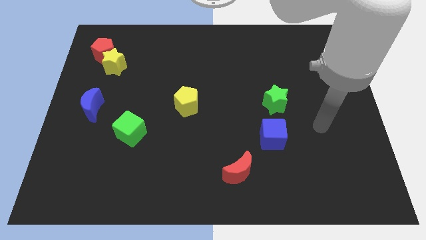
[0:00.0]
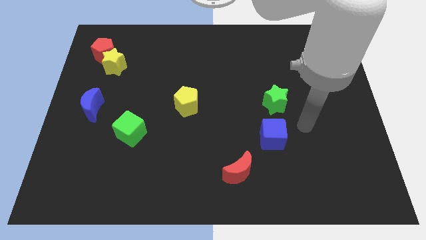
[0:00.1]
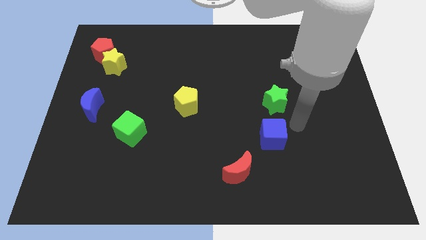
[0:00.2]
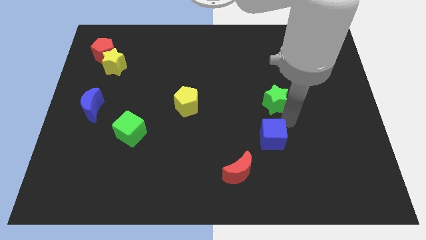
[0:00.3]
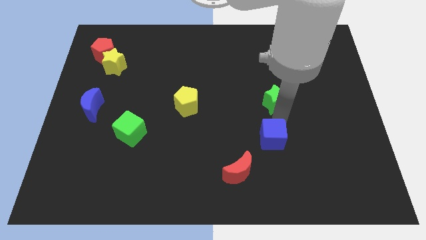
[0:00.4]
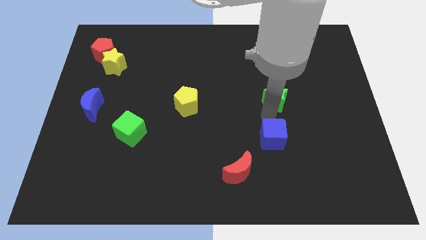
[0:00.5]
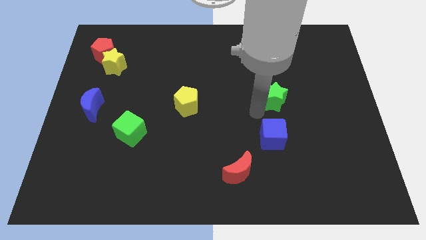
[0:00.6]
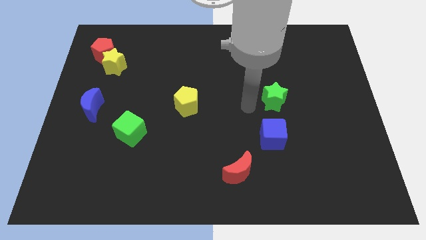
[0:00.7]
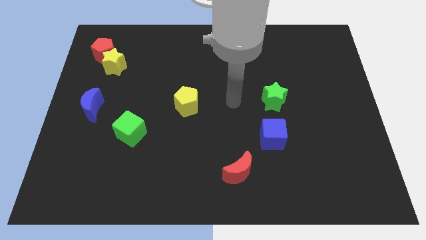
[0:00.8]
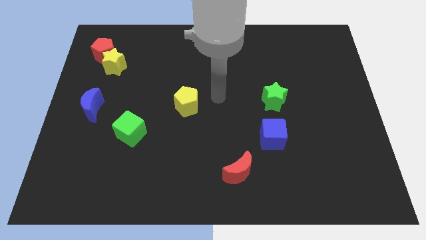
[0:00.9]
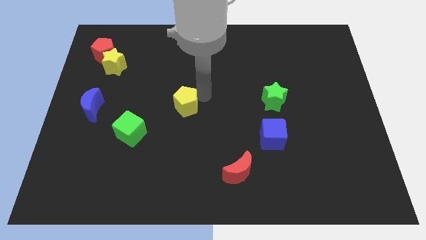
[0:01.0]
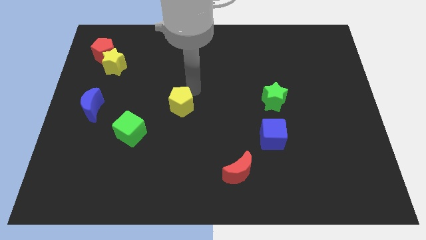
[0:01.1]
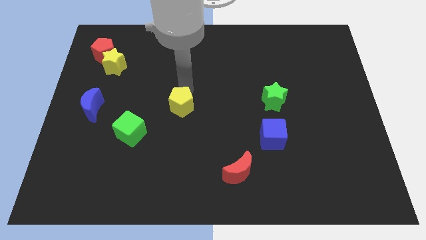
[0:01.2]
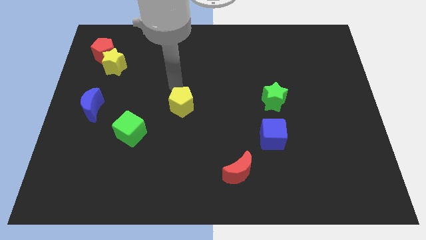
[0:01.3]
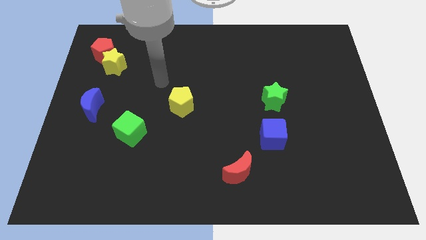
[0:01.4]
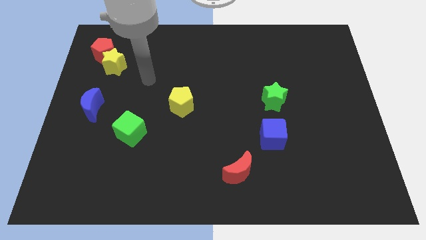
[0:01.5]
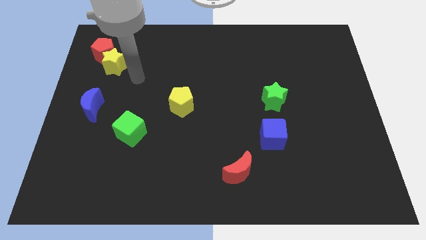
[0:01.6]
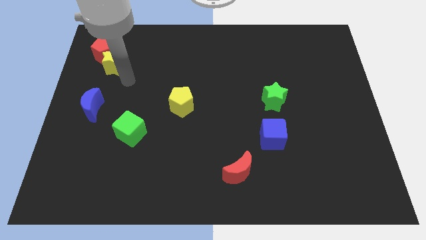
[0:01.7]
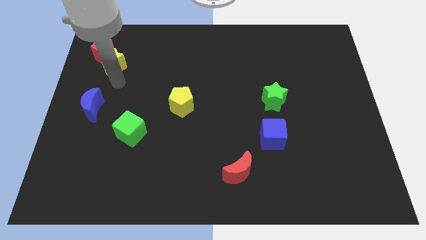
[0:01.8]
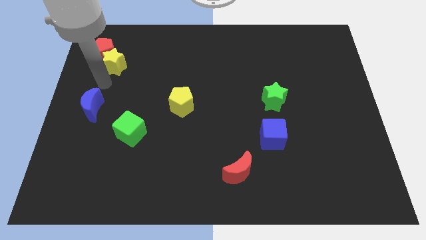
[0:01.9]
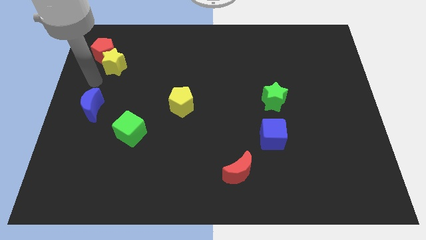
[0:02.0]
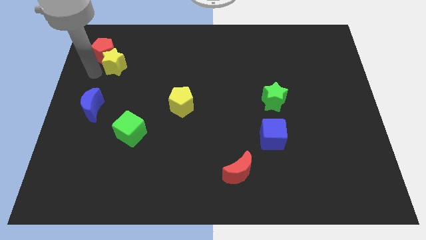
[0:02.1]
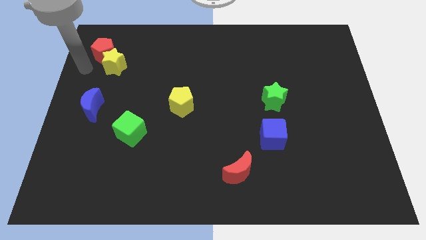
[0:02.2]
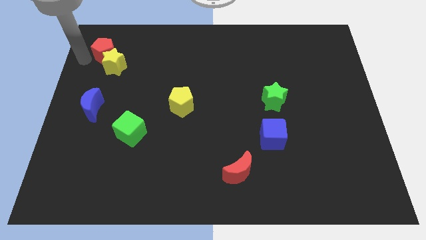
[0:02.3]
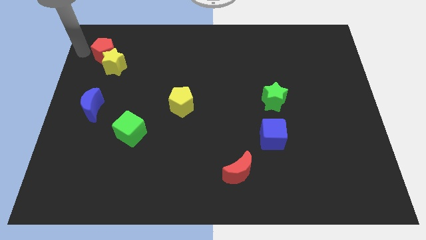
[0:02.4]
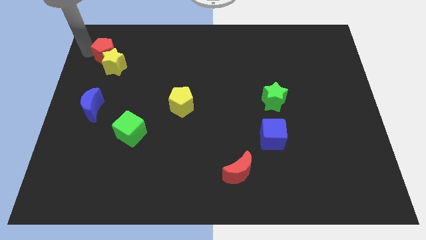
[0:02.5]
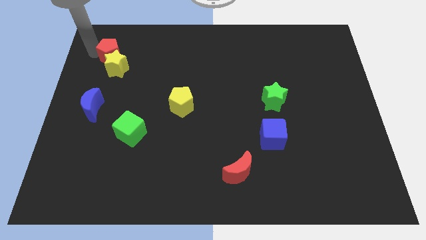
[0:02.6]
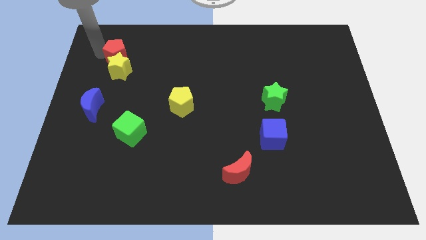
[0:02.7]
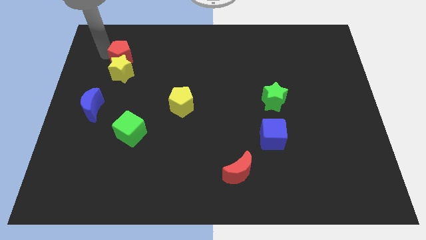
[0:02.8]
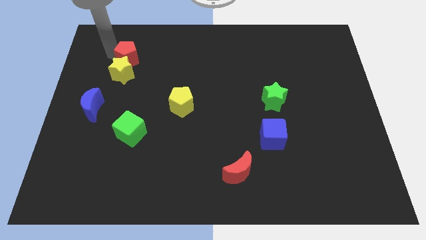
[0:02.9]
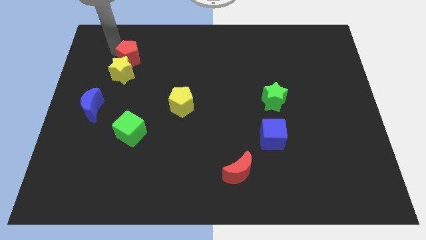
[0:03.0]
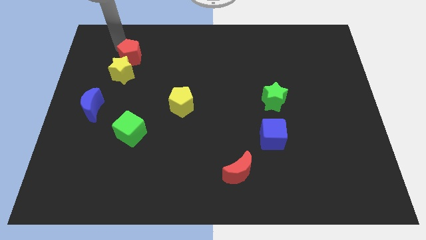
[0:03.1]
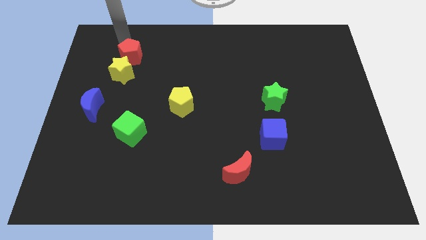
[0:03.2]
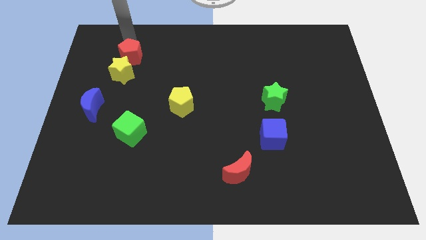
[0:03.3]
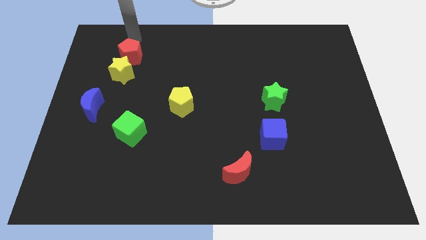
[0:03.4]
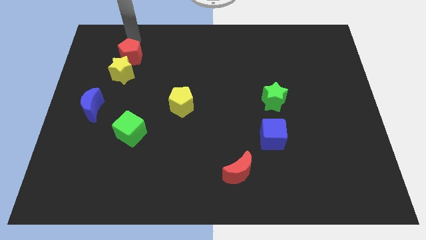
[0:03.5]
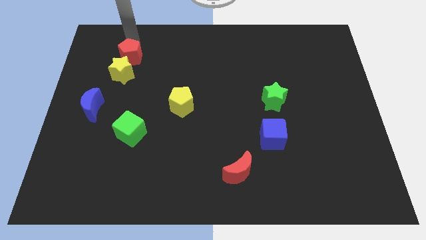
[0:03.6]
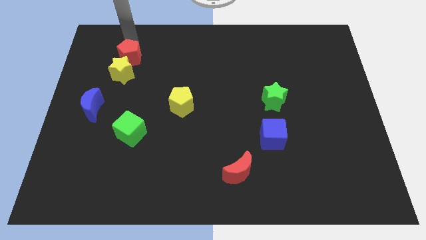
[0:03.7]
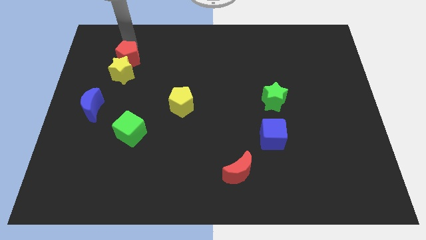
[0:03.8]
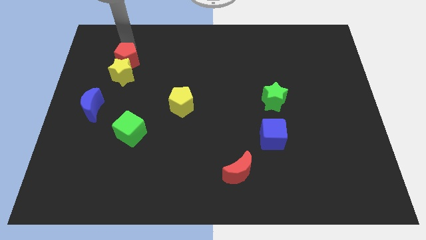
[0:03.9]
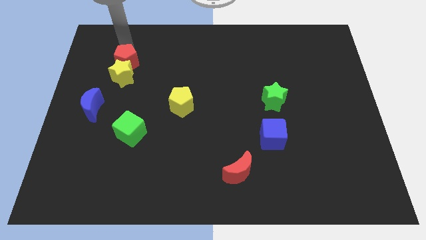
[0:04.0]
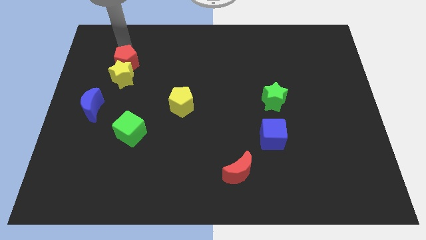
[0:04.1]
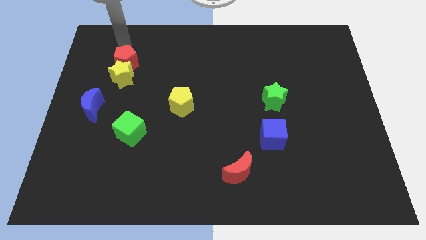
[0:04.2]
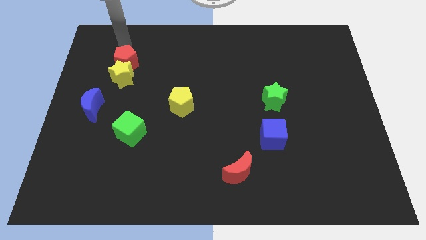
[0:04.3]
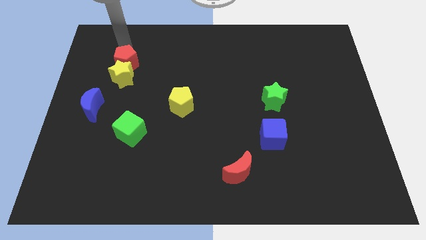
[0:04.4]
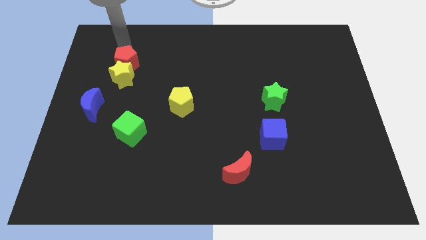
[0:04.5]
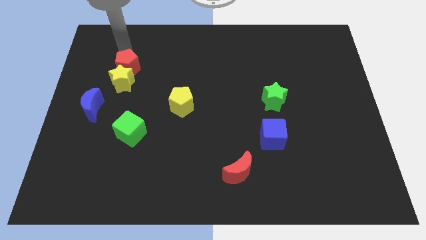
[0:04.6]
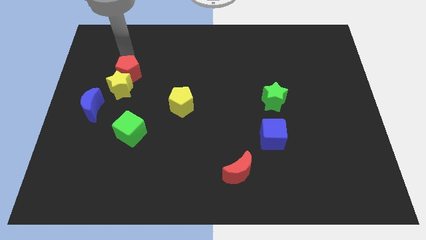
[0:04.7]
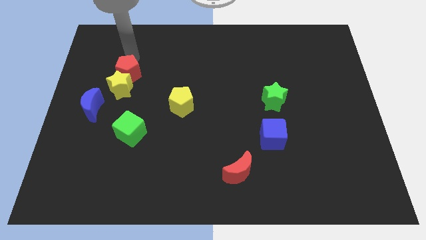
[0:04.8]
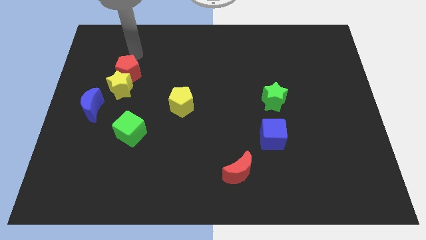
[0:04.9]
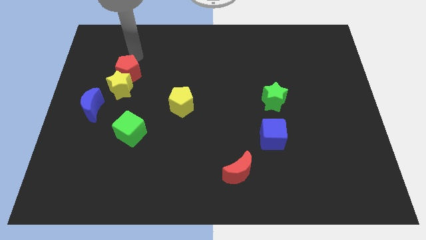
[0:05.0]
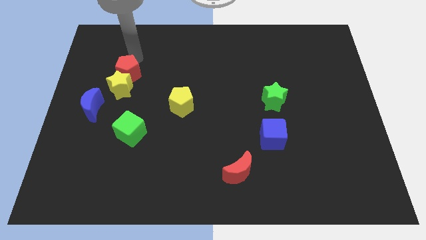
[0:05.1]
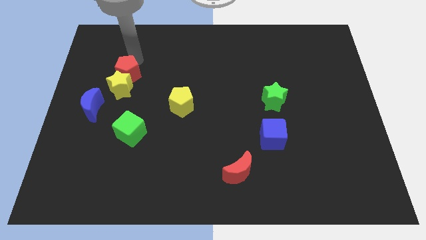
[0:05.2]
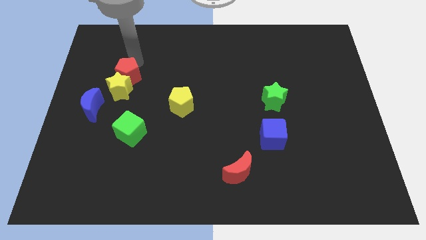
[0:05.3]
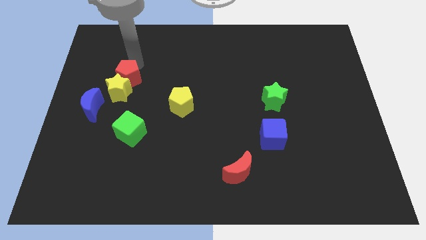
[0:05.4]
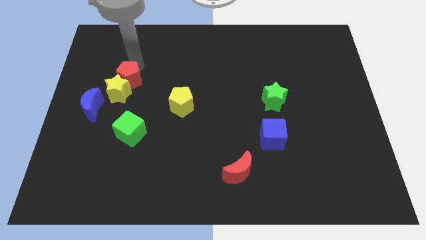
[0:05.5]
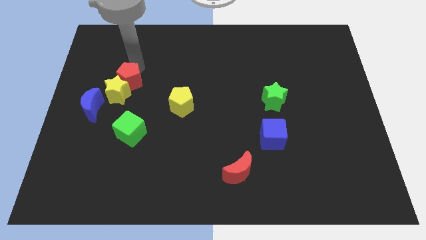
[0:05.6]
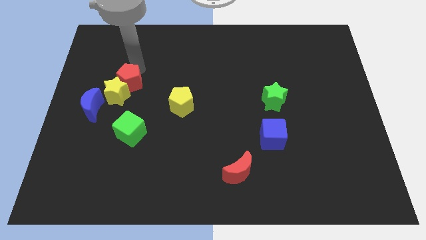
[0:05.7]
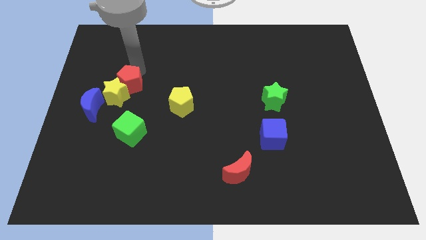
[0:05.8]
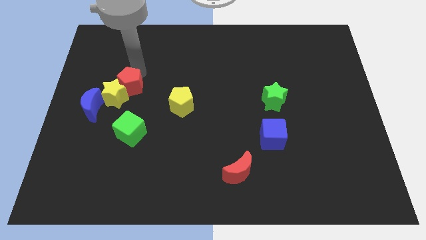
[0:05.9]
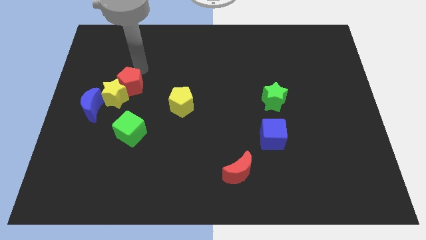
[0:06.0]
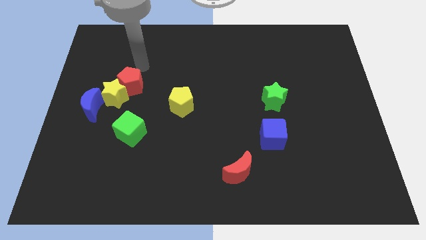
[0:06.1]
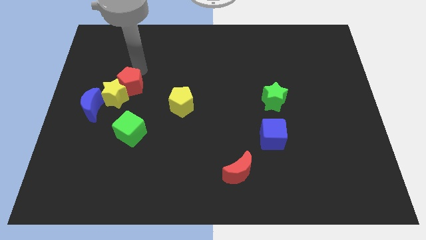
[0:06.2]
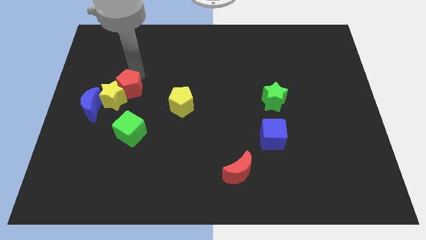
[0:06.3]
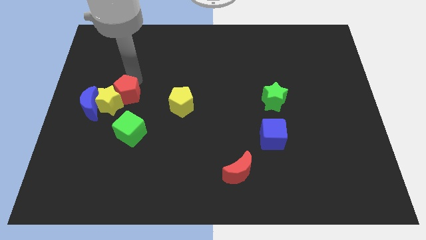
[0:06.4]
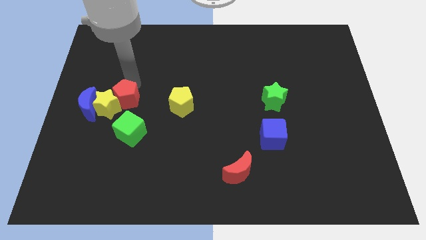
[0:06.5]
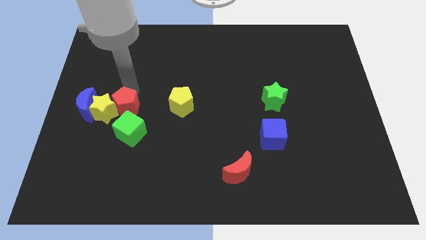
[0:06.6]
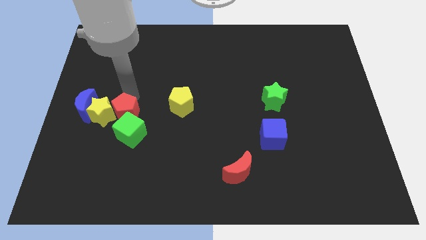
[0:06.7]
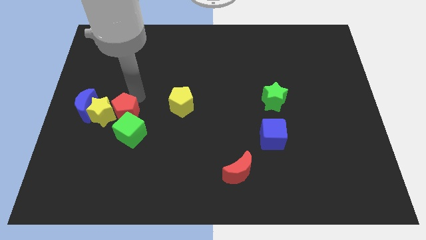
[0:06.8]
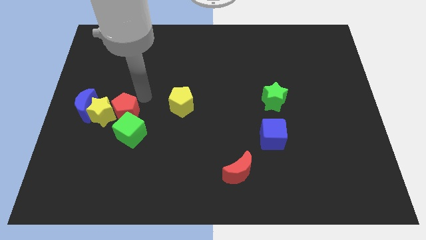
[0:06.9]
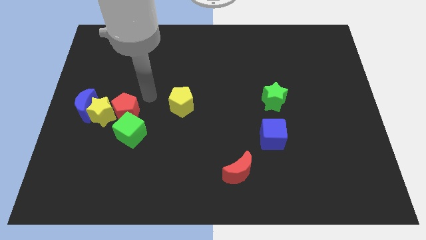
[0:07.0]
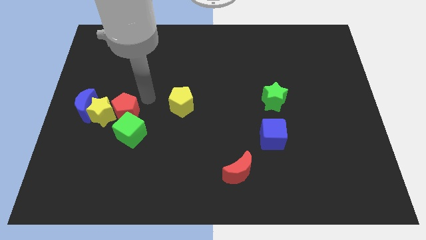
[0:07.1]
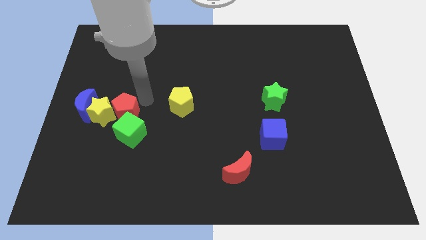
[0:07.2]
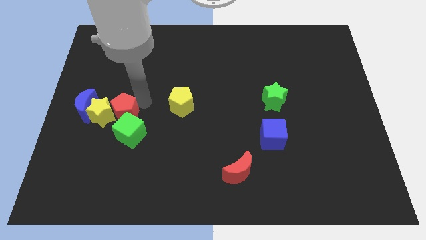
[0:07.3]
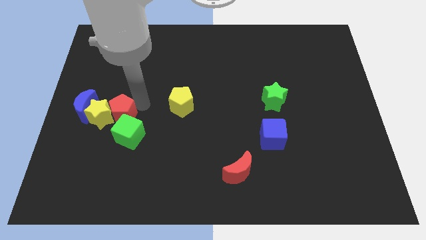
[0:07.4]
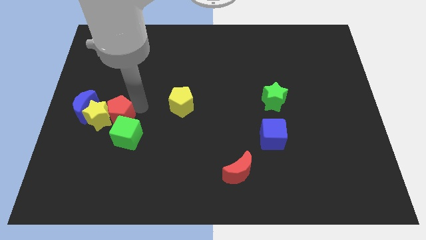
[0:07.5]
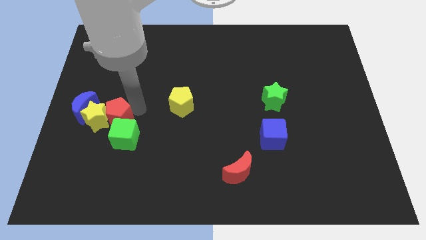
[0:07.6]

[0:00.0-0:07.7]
put the red pentagon to the bottom right side of the blue moon
